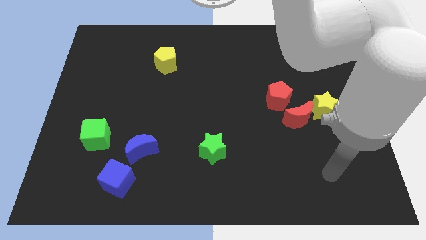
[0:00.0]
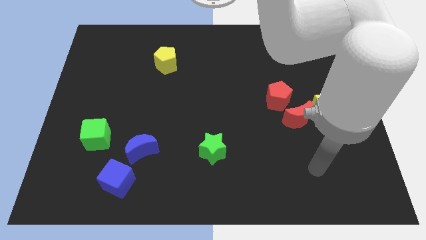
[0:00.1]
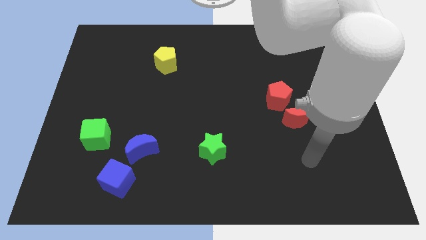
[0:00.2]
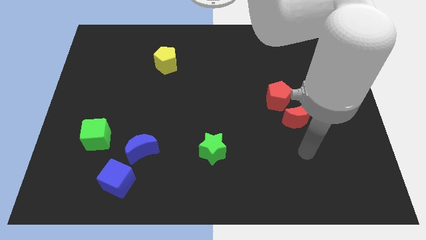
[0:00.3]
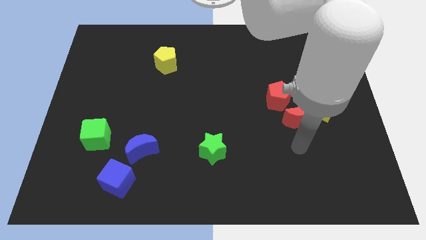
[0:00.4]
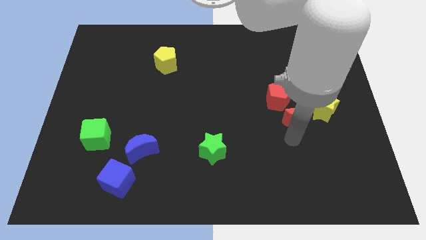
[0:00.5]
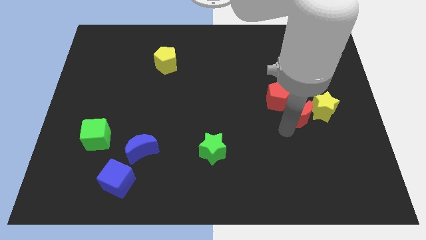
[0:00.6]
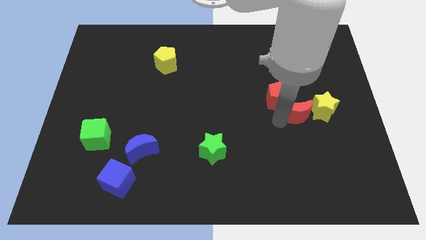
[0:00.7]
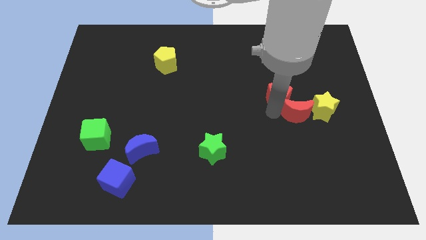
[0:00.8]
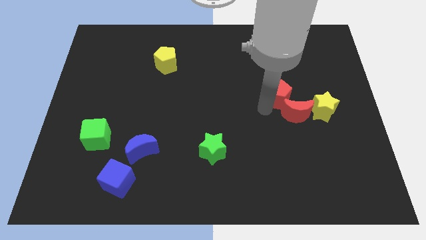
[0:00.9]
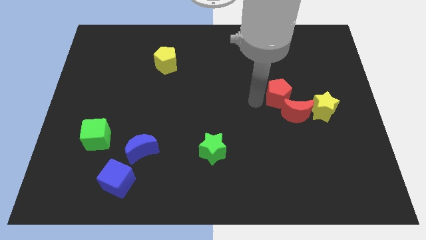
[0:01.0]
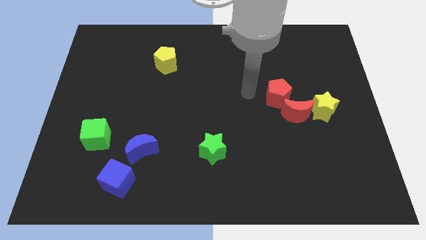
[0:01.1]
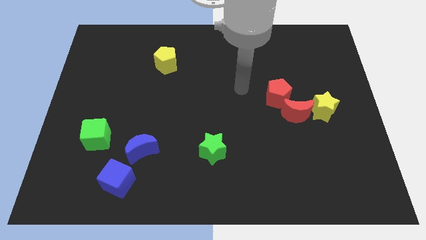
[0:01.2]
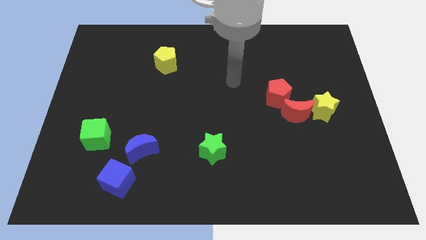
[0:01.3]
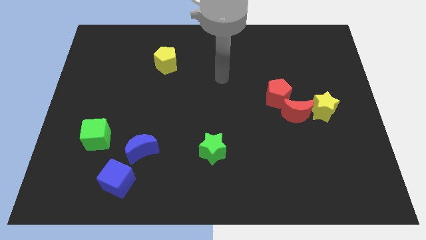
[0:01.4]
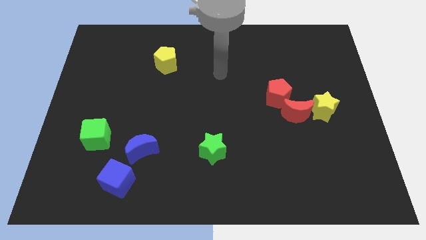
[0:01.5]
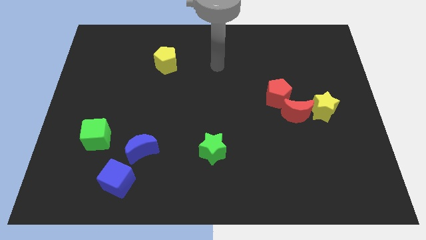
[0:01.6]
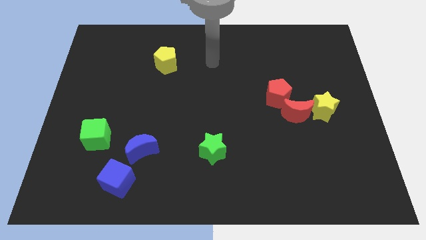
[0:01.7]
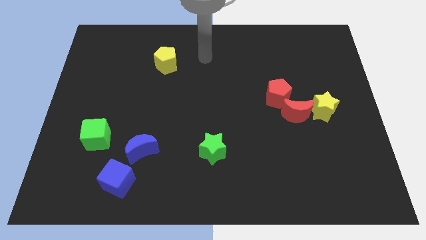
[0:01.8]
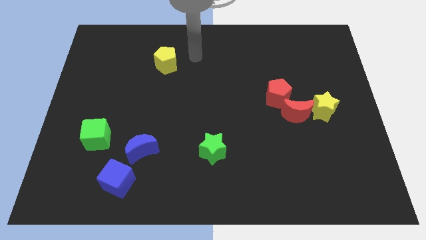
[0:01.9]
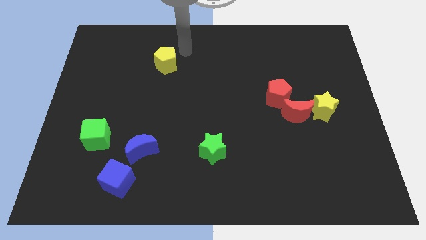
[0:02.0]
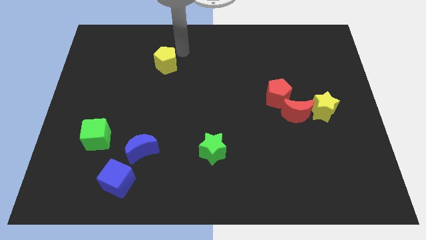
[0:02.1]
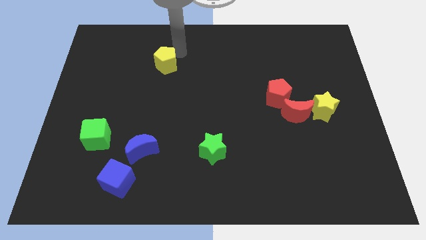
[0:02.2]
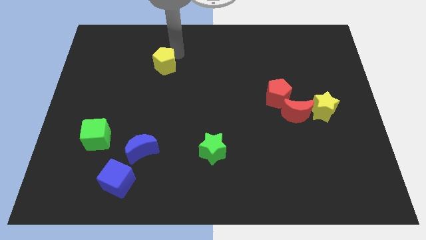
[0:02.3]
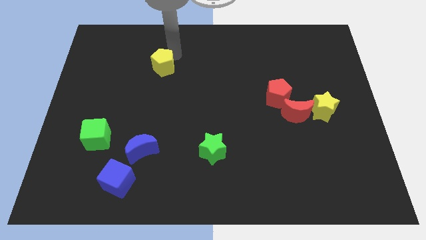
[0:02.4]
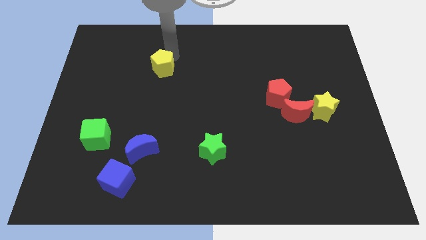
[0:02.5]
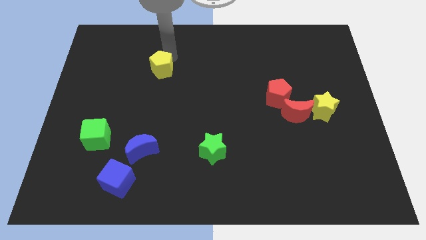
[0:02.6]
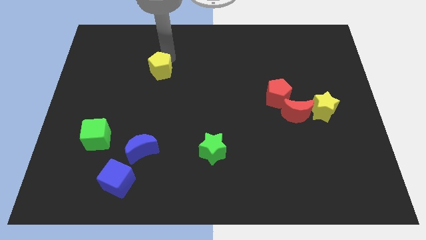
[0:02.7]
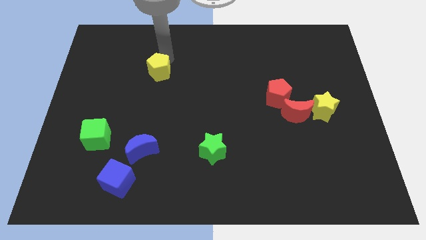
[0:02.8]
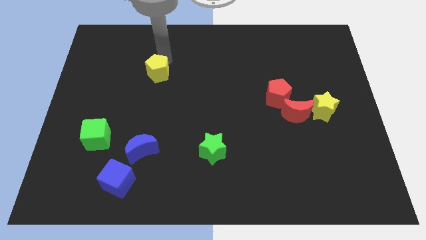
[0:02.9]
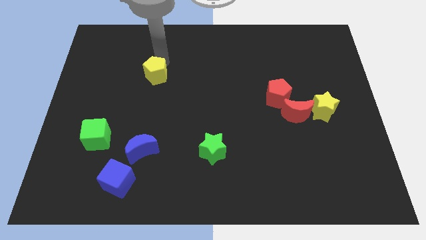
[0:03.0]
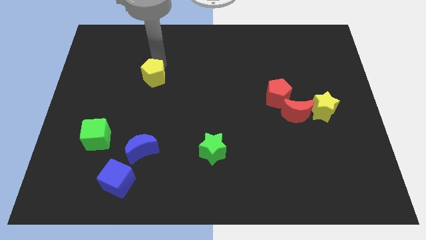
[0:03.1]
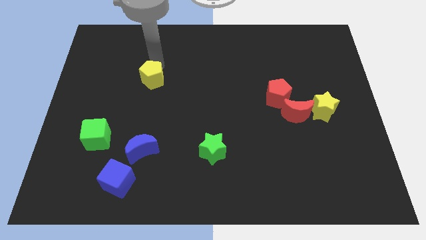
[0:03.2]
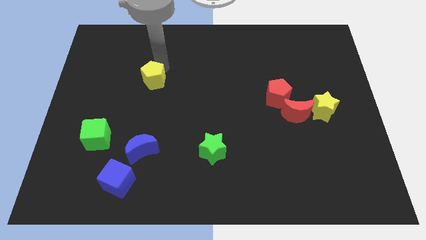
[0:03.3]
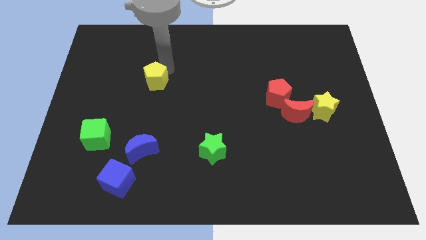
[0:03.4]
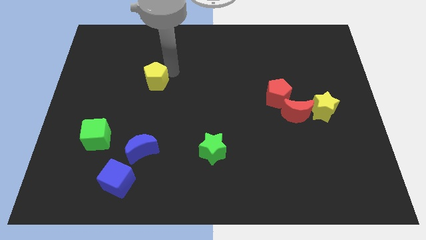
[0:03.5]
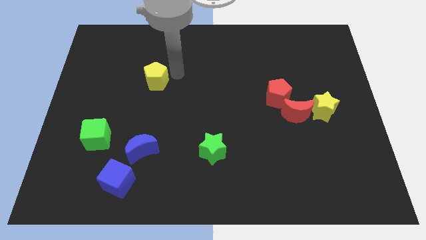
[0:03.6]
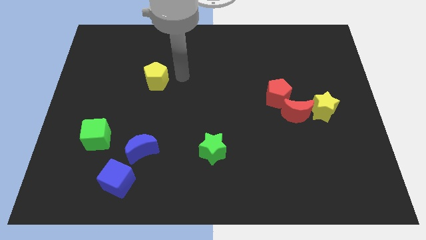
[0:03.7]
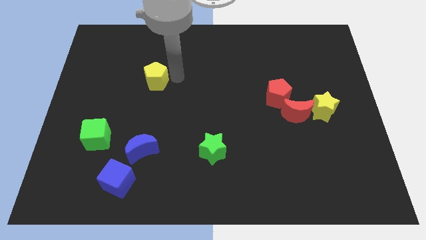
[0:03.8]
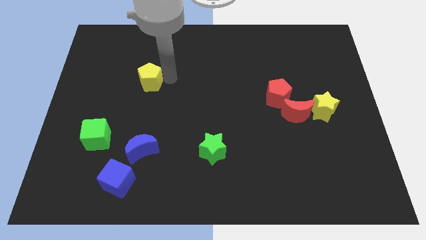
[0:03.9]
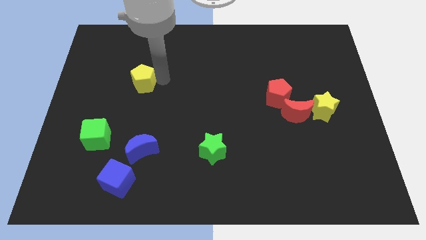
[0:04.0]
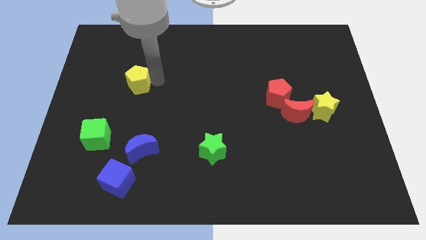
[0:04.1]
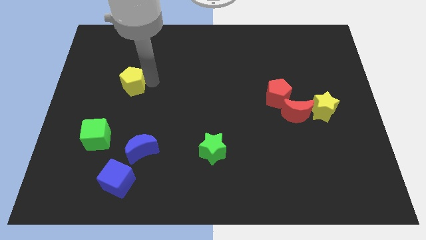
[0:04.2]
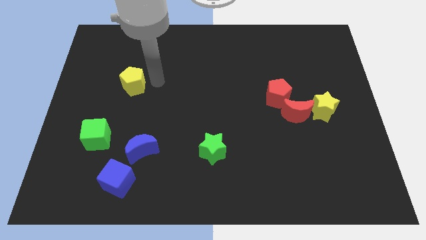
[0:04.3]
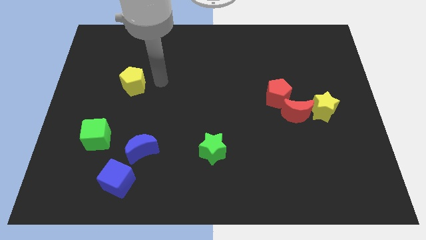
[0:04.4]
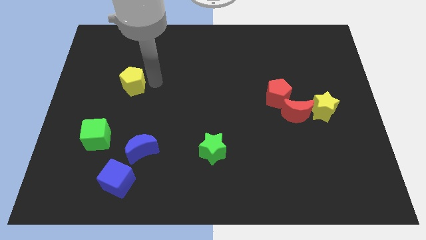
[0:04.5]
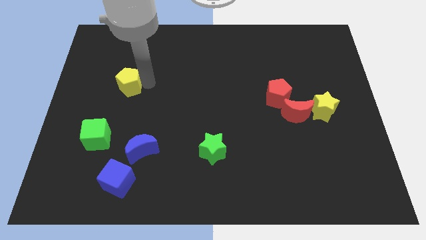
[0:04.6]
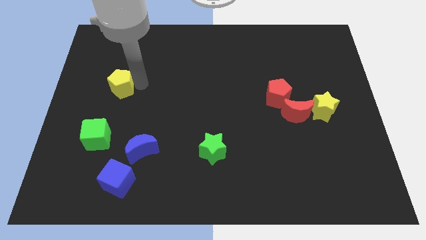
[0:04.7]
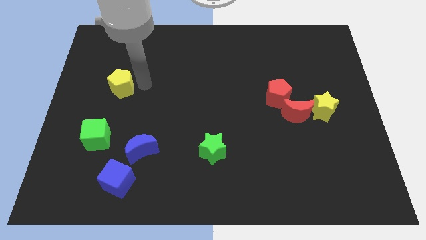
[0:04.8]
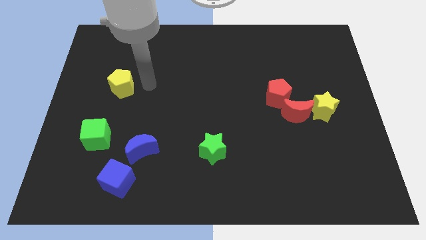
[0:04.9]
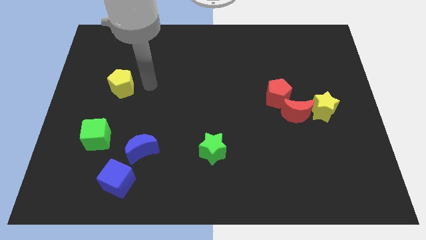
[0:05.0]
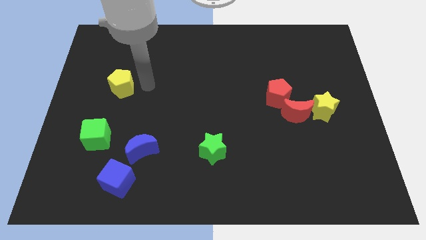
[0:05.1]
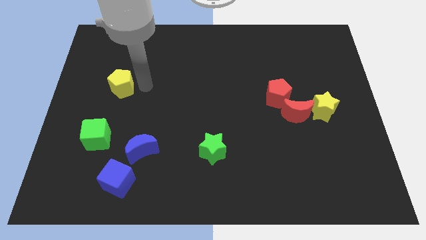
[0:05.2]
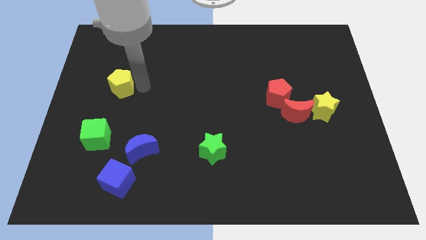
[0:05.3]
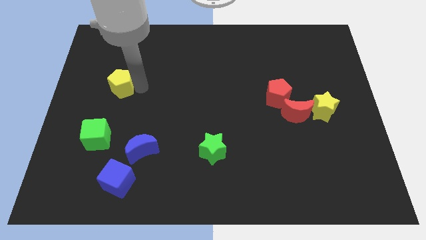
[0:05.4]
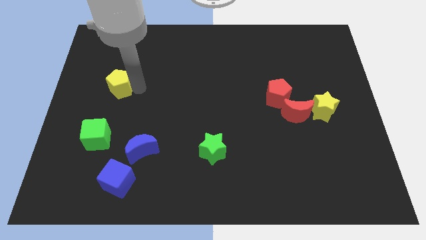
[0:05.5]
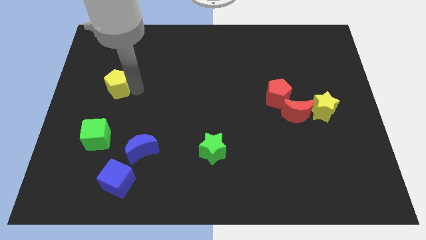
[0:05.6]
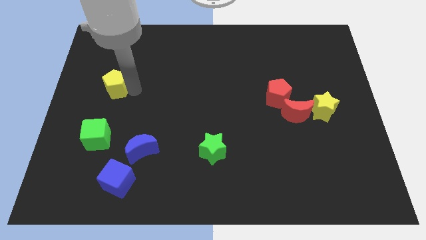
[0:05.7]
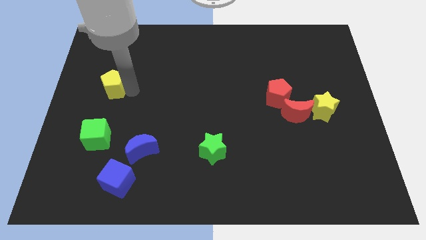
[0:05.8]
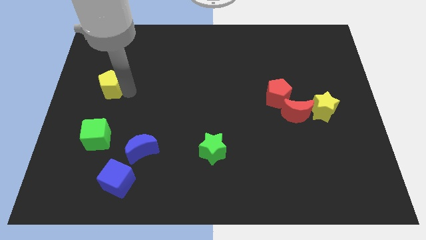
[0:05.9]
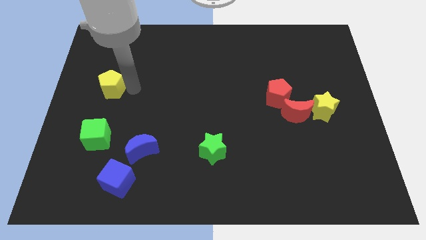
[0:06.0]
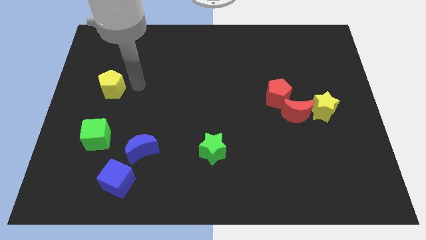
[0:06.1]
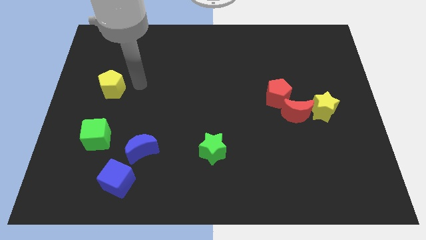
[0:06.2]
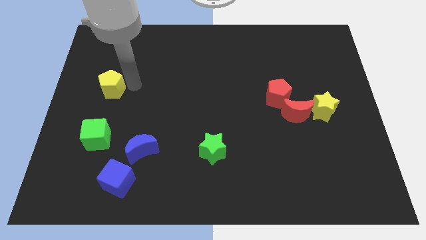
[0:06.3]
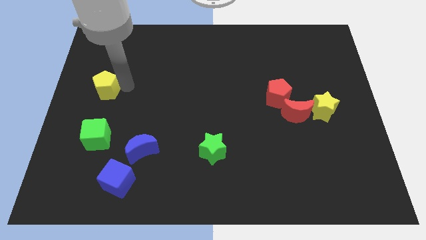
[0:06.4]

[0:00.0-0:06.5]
push the yellow pentagon to the left side

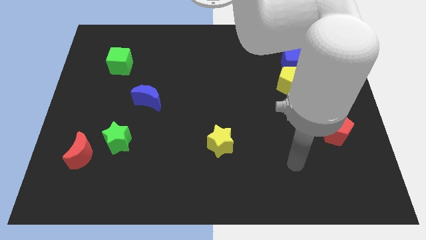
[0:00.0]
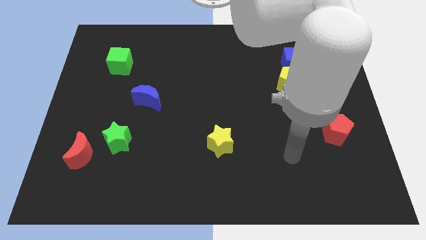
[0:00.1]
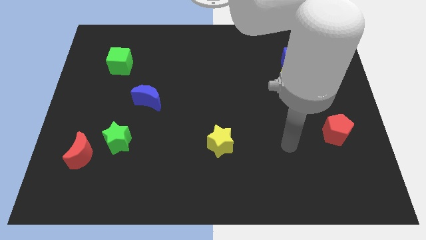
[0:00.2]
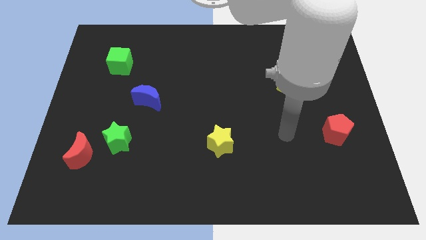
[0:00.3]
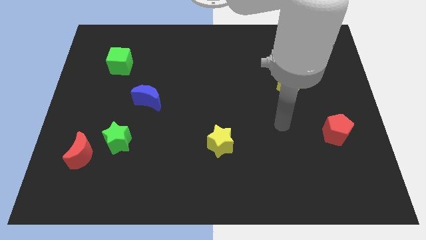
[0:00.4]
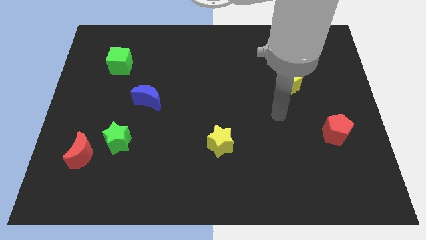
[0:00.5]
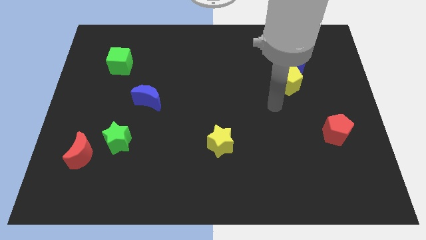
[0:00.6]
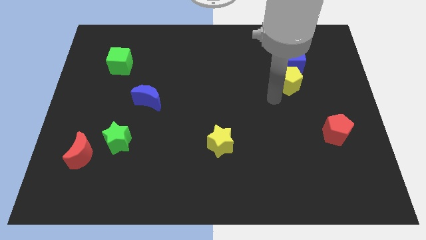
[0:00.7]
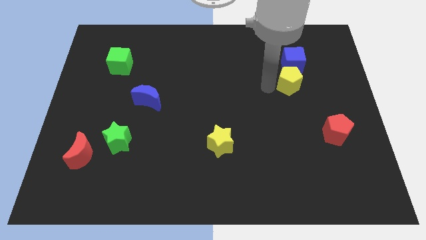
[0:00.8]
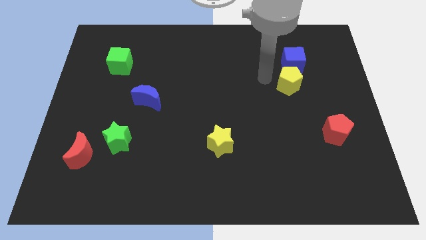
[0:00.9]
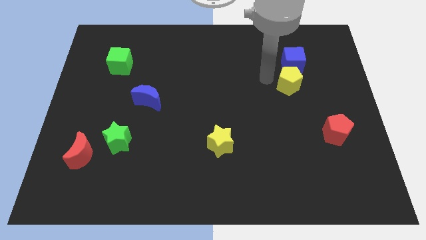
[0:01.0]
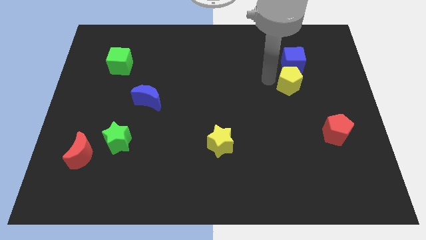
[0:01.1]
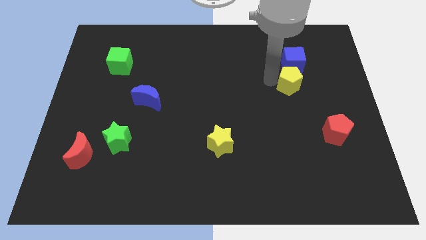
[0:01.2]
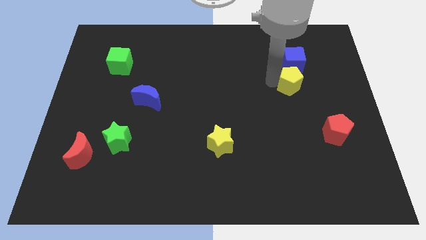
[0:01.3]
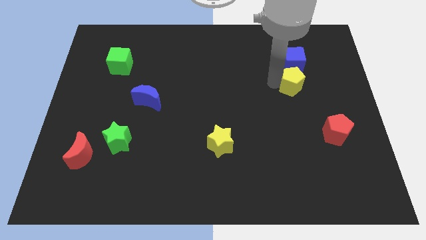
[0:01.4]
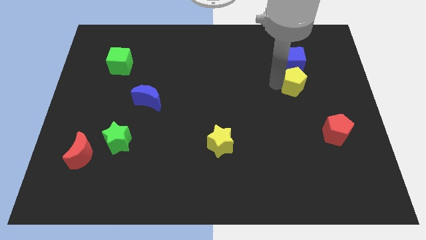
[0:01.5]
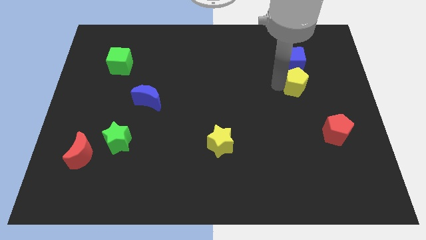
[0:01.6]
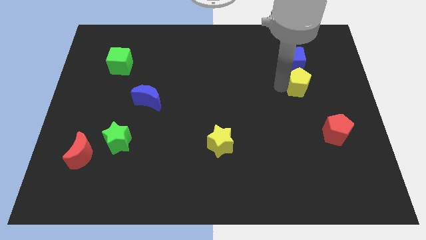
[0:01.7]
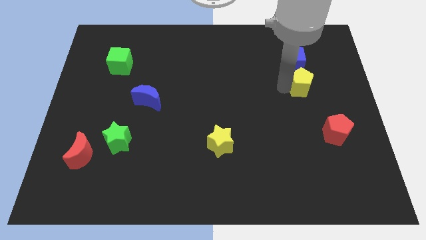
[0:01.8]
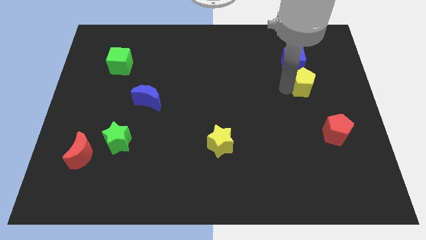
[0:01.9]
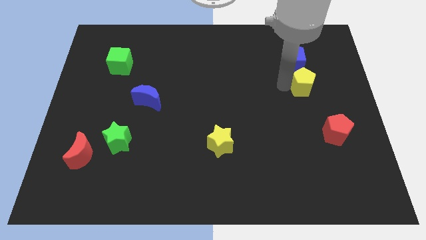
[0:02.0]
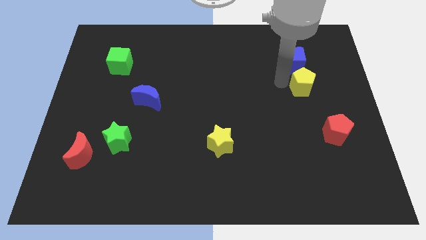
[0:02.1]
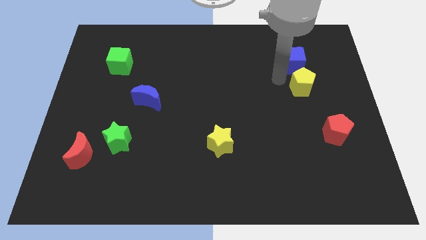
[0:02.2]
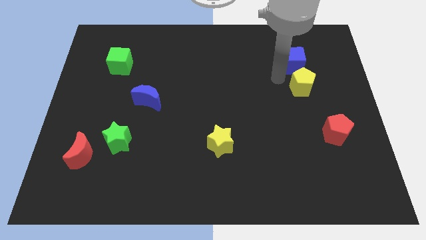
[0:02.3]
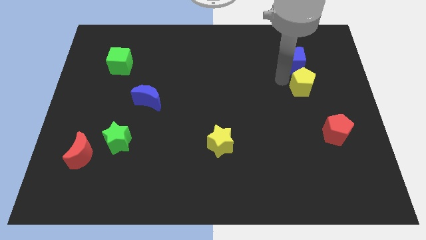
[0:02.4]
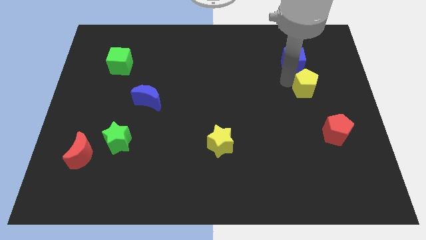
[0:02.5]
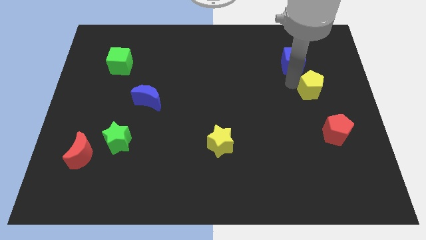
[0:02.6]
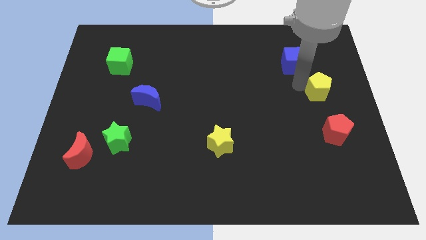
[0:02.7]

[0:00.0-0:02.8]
move the yellow pentagon to the center right
